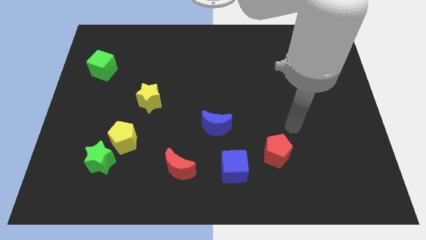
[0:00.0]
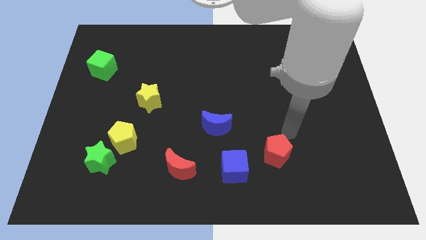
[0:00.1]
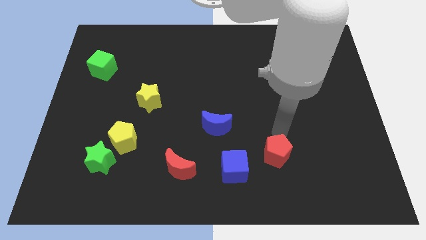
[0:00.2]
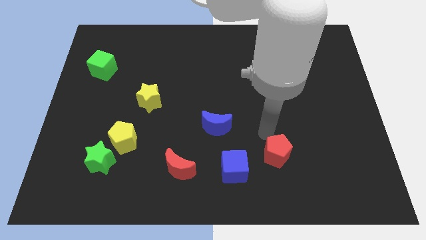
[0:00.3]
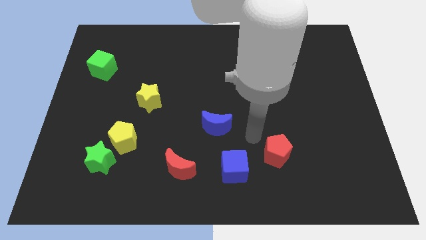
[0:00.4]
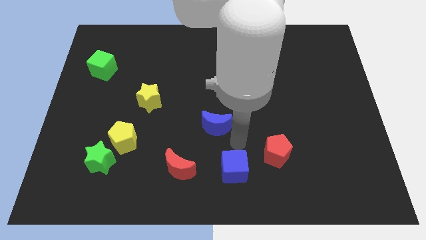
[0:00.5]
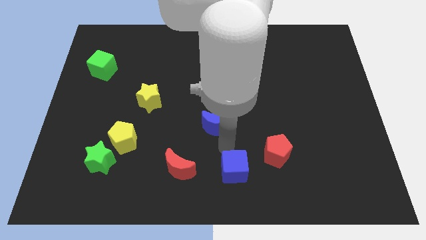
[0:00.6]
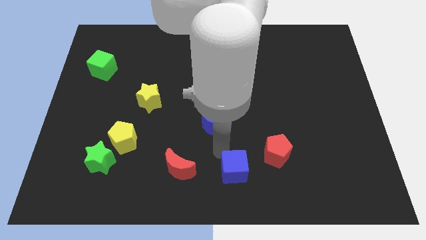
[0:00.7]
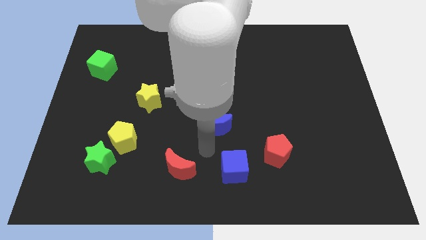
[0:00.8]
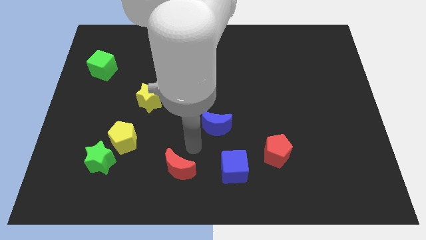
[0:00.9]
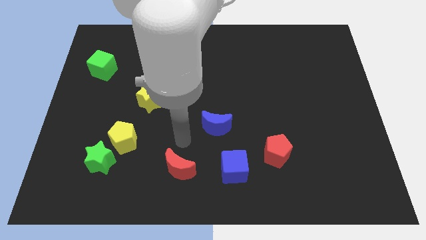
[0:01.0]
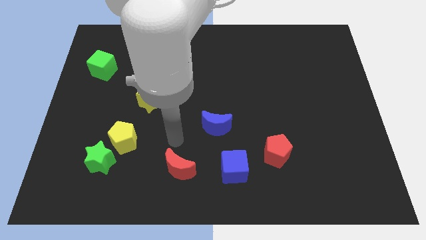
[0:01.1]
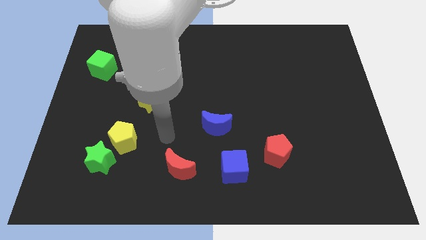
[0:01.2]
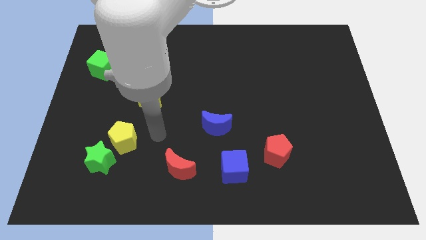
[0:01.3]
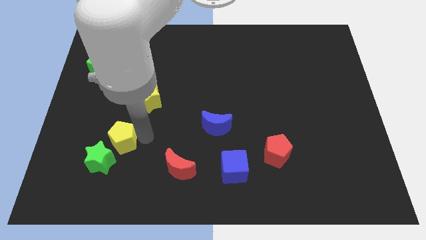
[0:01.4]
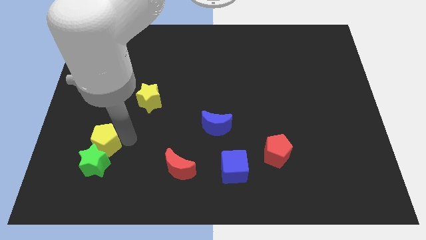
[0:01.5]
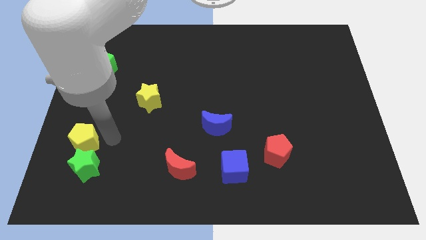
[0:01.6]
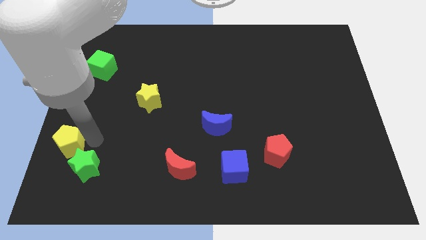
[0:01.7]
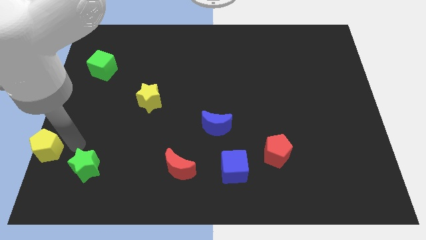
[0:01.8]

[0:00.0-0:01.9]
separate the green star from the yellow pentagon

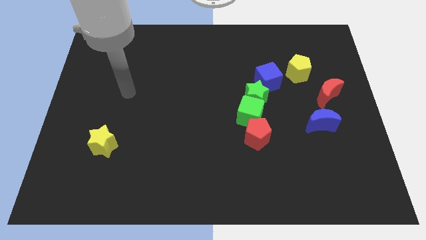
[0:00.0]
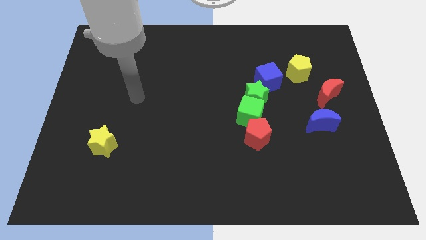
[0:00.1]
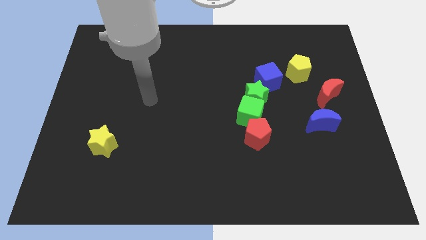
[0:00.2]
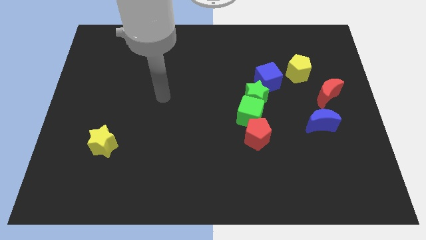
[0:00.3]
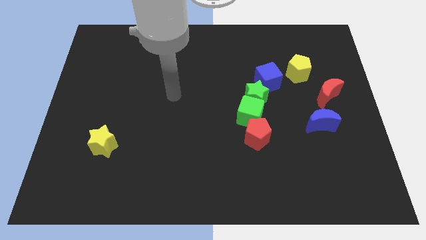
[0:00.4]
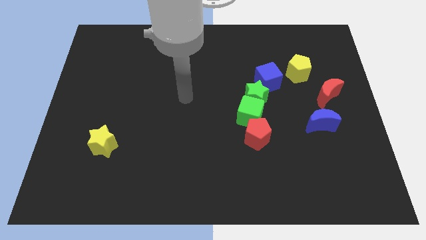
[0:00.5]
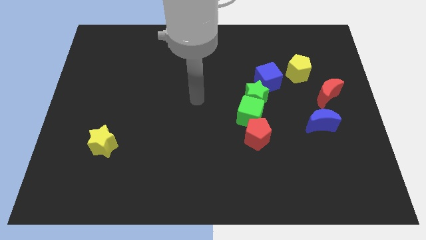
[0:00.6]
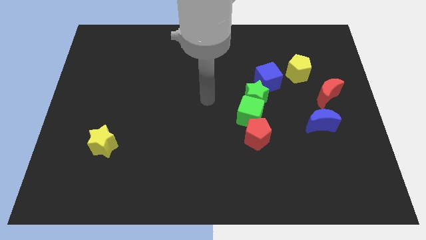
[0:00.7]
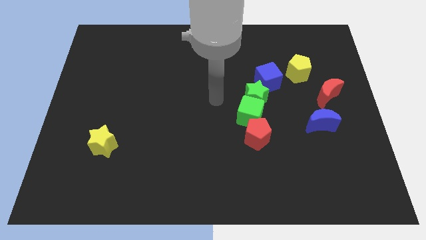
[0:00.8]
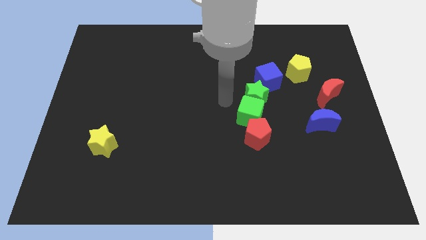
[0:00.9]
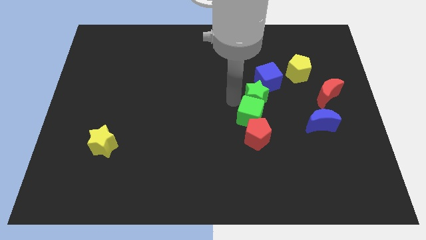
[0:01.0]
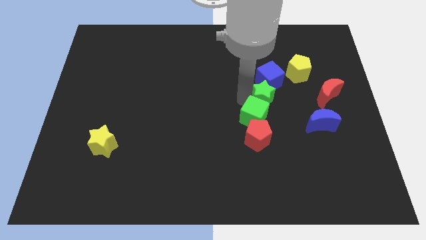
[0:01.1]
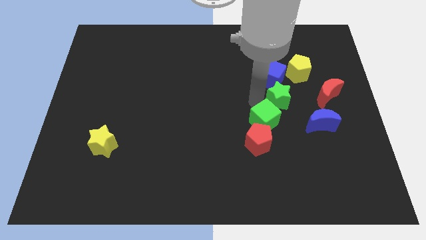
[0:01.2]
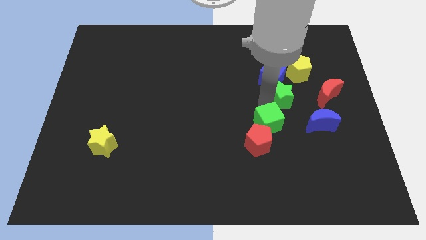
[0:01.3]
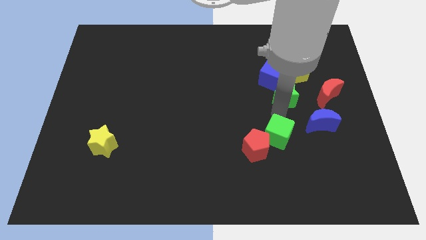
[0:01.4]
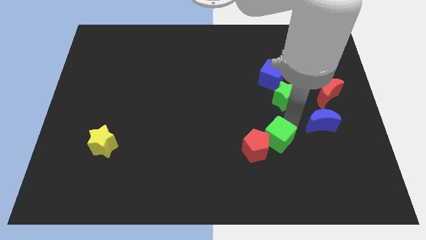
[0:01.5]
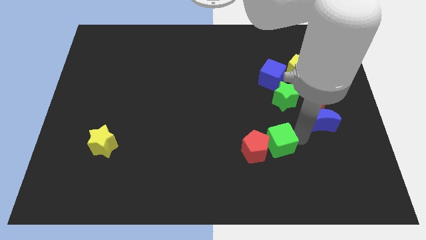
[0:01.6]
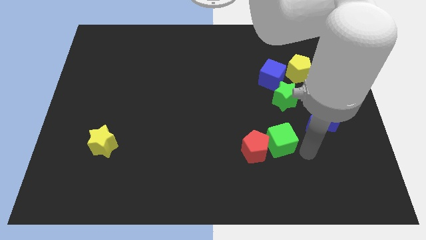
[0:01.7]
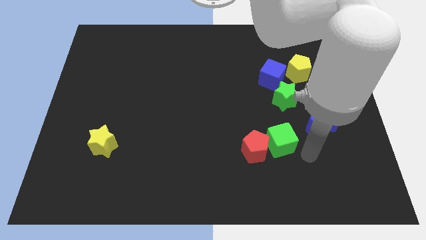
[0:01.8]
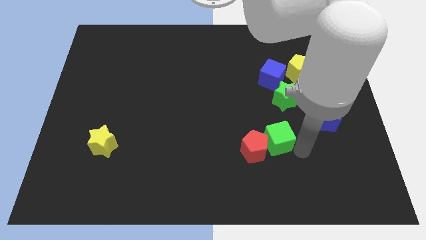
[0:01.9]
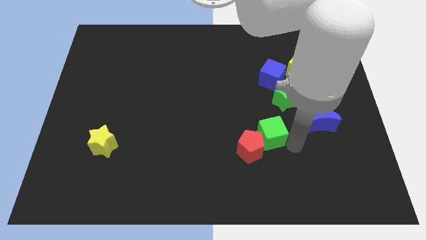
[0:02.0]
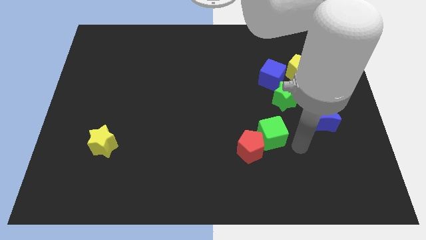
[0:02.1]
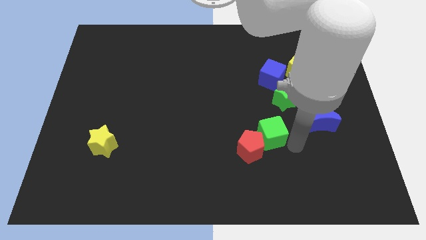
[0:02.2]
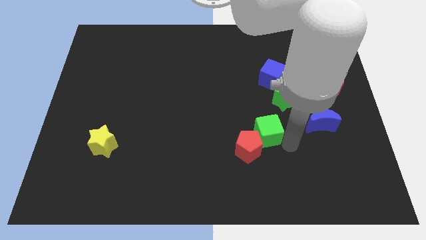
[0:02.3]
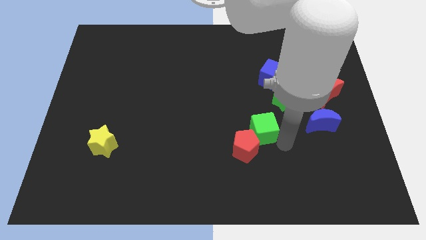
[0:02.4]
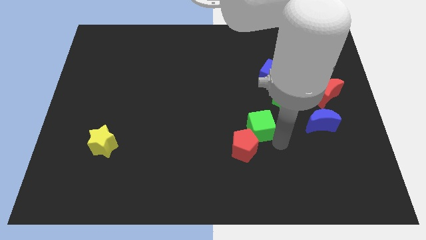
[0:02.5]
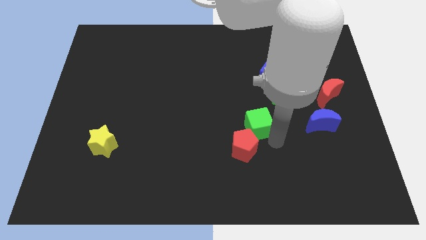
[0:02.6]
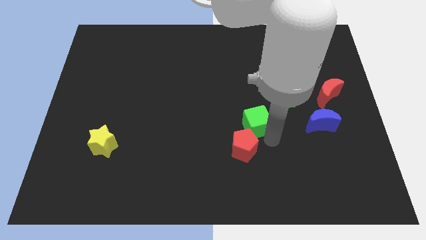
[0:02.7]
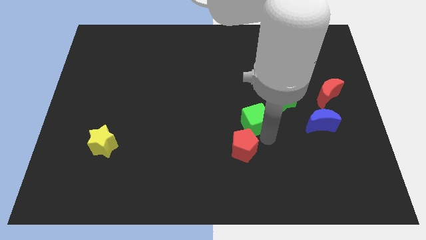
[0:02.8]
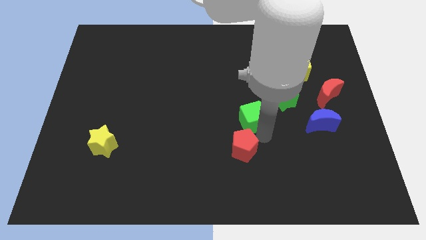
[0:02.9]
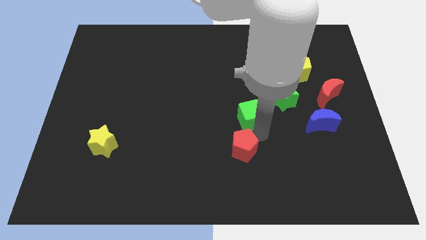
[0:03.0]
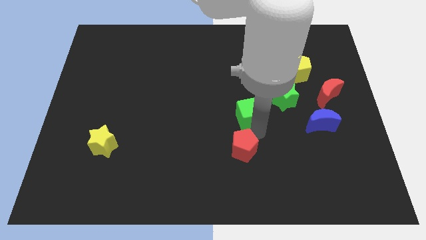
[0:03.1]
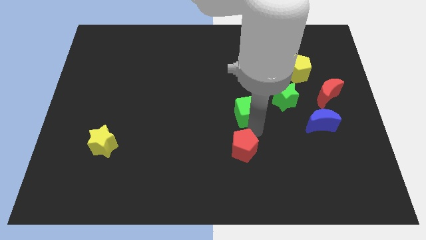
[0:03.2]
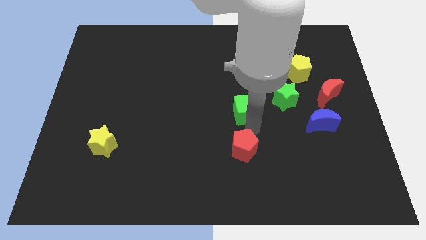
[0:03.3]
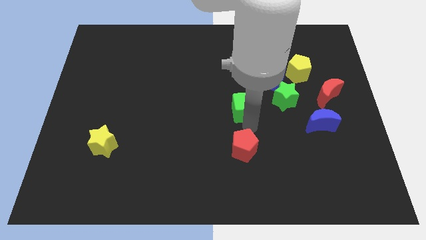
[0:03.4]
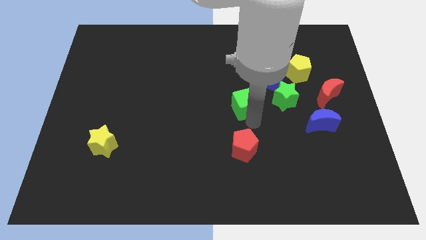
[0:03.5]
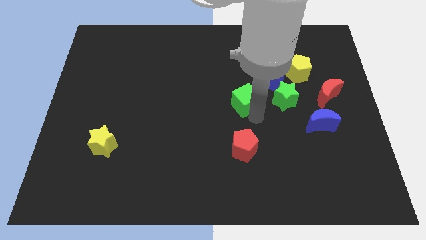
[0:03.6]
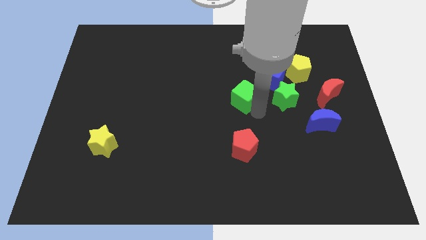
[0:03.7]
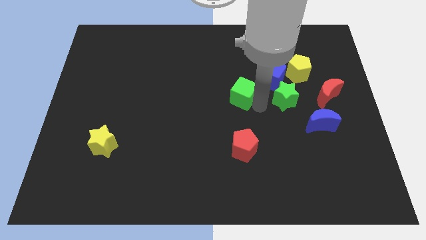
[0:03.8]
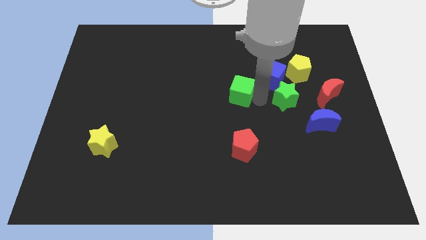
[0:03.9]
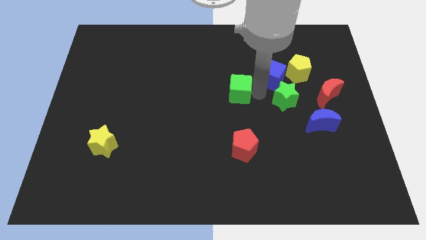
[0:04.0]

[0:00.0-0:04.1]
separate the green cube from the green star and red pentagon

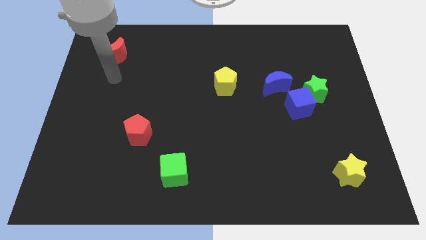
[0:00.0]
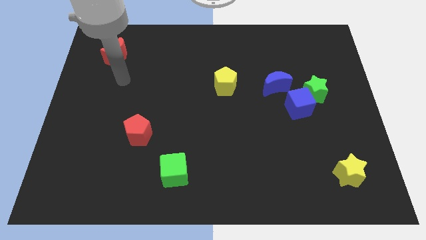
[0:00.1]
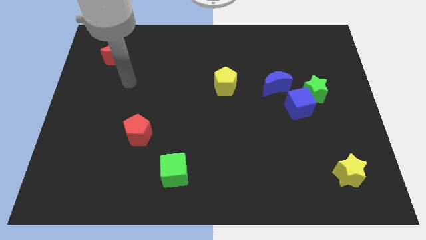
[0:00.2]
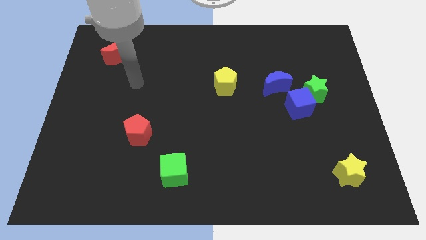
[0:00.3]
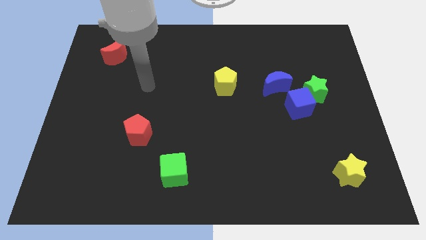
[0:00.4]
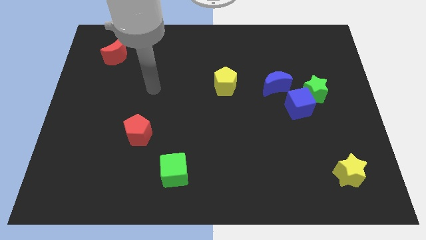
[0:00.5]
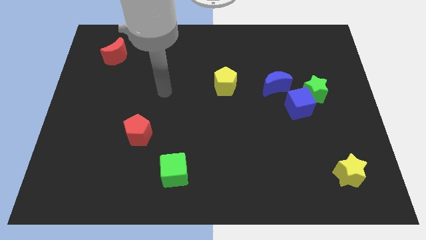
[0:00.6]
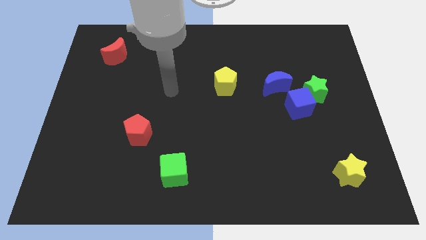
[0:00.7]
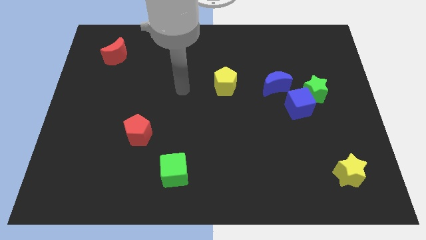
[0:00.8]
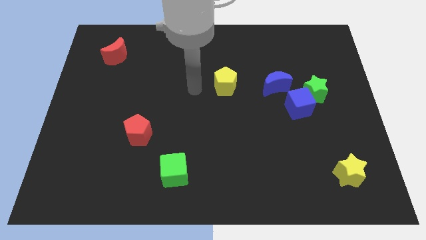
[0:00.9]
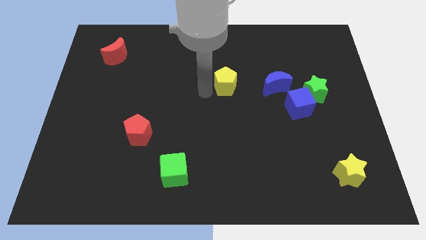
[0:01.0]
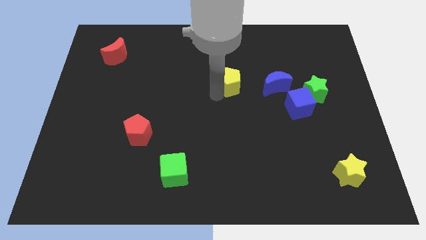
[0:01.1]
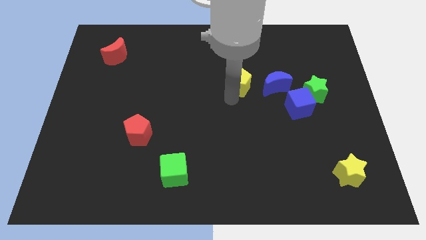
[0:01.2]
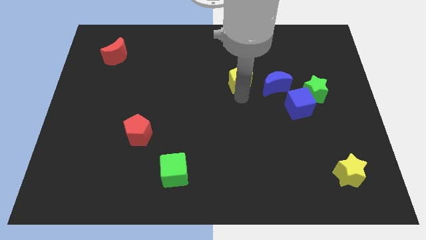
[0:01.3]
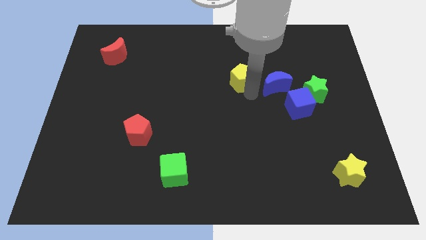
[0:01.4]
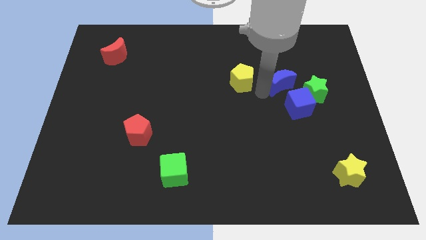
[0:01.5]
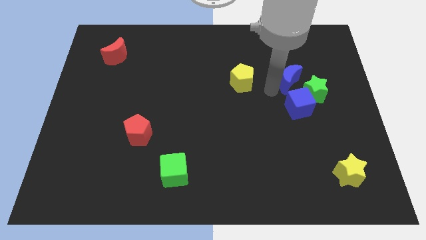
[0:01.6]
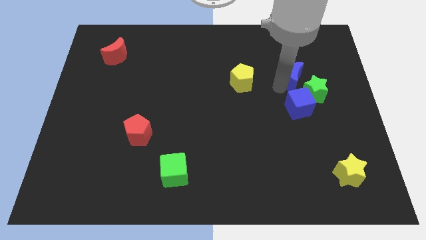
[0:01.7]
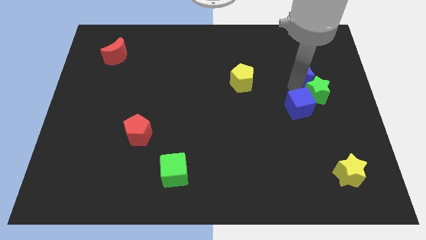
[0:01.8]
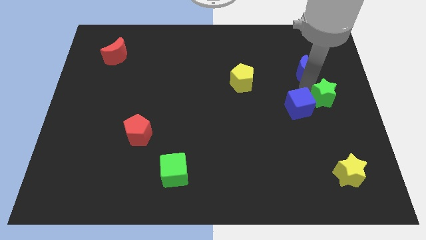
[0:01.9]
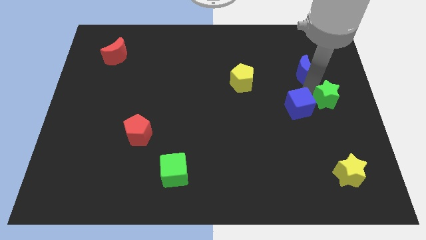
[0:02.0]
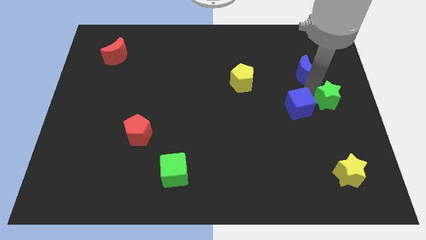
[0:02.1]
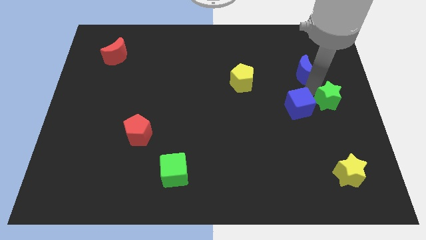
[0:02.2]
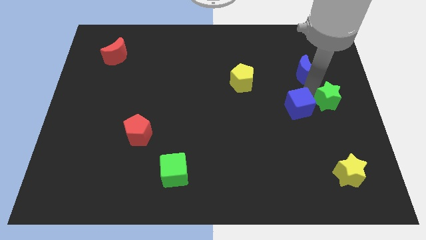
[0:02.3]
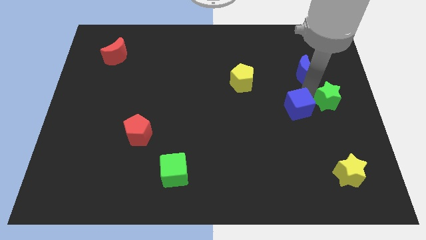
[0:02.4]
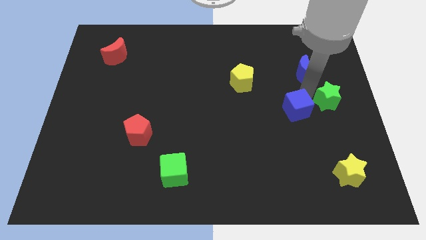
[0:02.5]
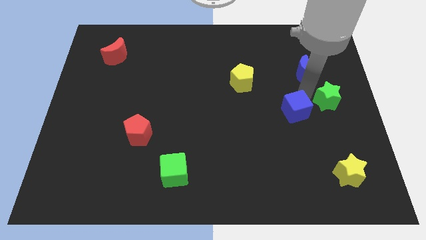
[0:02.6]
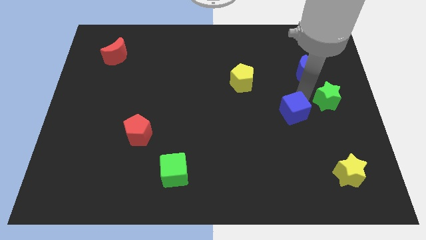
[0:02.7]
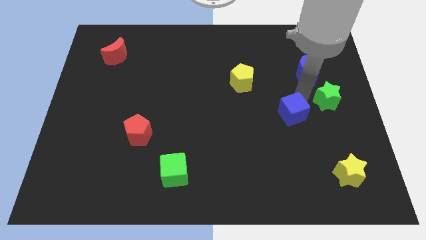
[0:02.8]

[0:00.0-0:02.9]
separate the blue cube from the green star and blue moon

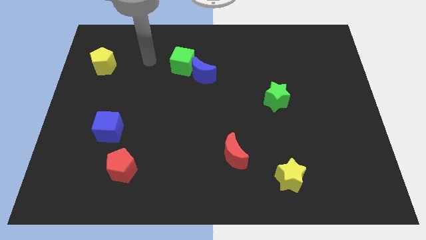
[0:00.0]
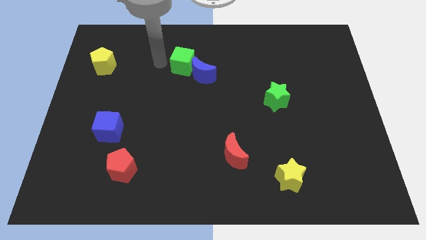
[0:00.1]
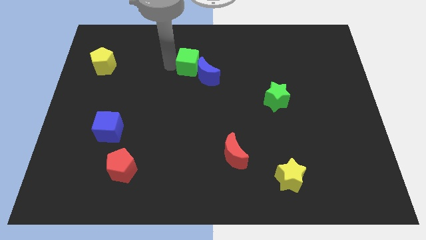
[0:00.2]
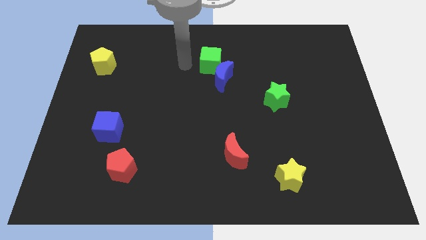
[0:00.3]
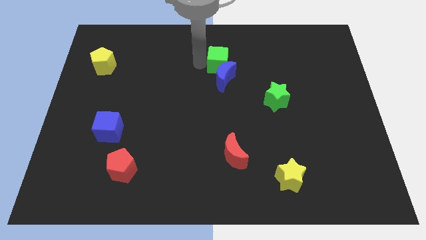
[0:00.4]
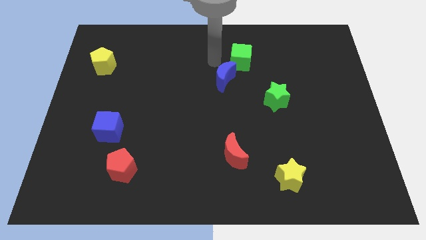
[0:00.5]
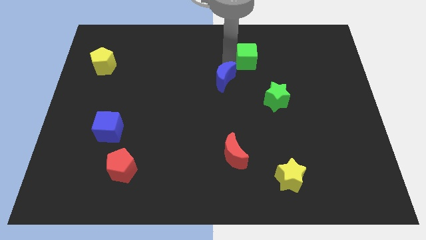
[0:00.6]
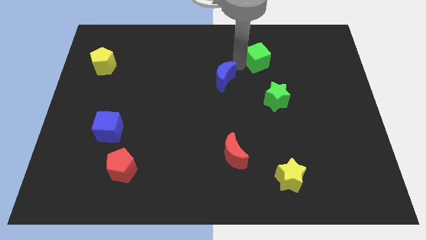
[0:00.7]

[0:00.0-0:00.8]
separate the blue moon from the green cube
